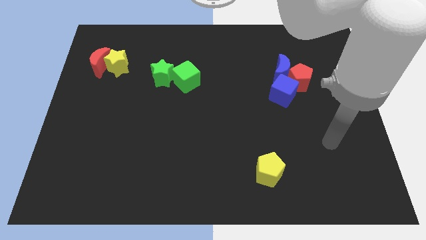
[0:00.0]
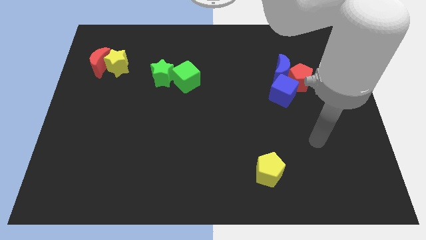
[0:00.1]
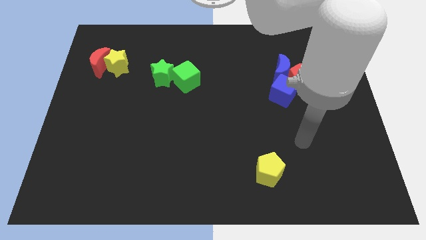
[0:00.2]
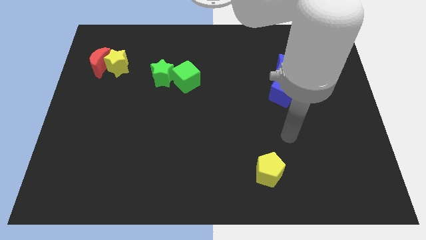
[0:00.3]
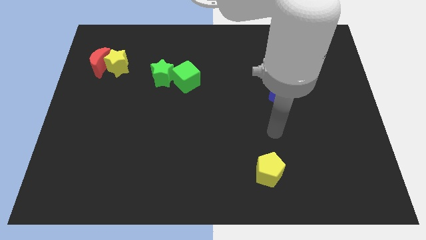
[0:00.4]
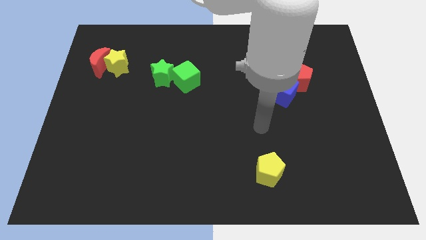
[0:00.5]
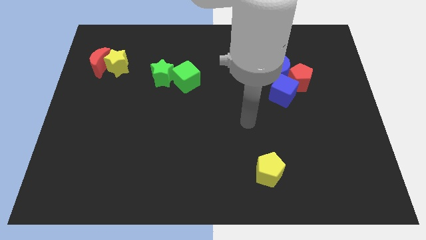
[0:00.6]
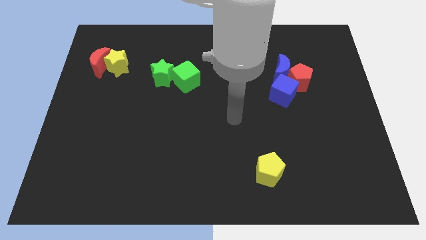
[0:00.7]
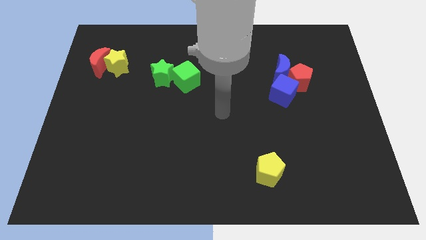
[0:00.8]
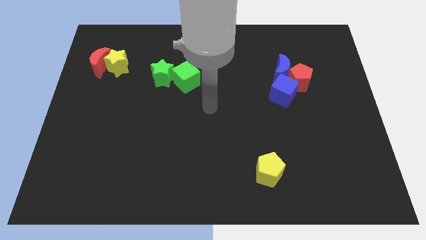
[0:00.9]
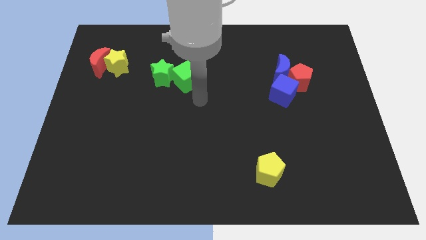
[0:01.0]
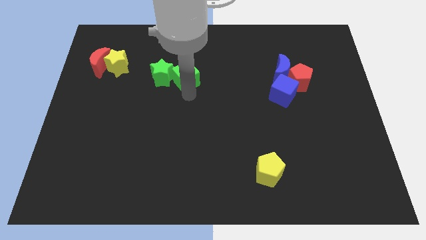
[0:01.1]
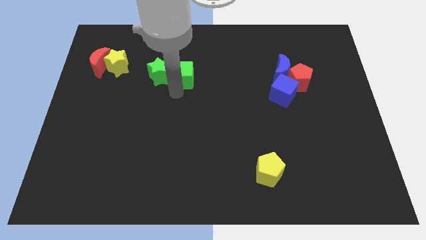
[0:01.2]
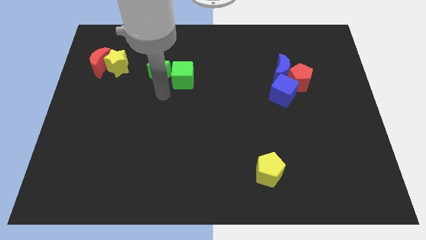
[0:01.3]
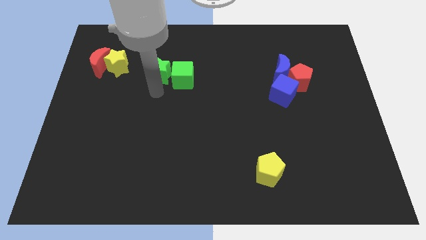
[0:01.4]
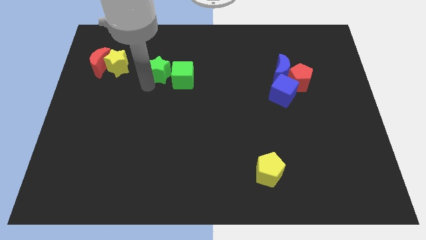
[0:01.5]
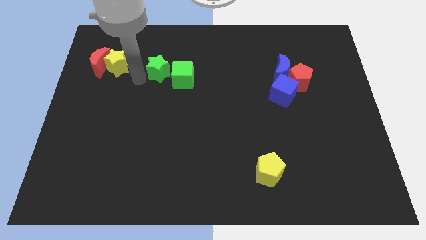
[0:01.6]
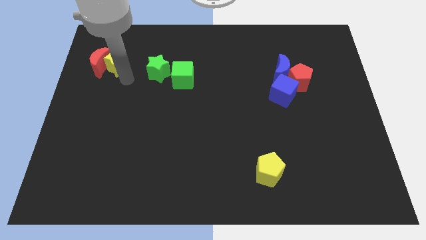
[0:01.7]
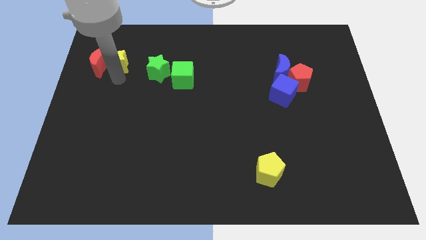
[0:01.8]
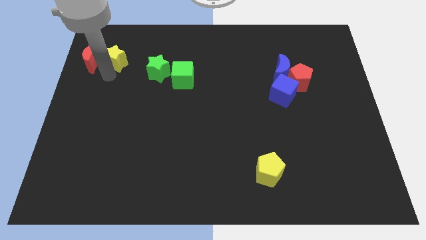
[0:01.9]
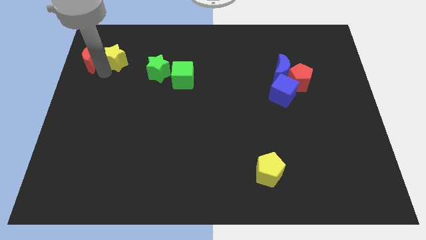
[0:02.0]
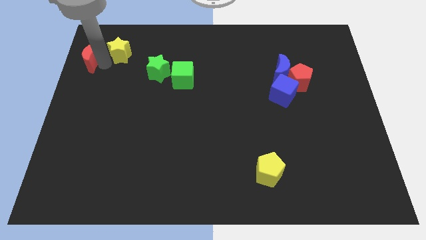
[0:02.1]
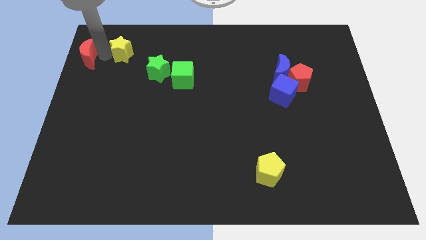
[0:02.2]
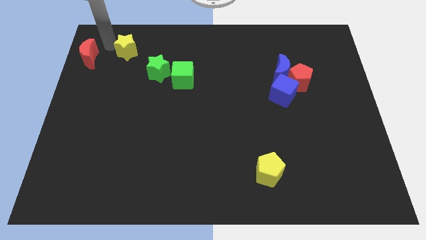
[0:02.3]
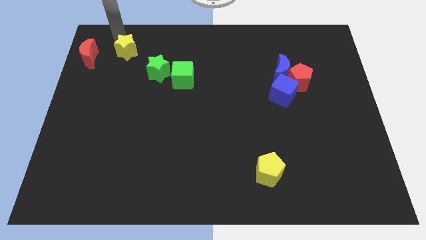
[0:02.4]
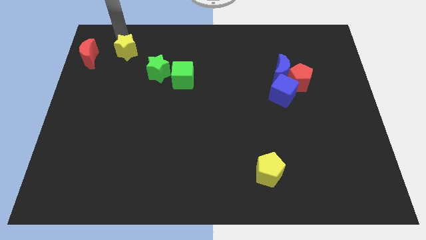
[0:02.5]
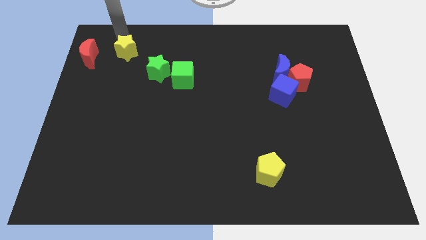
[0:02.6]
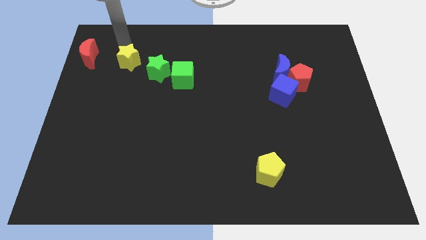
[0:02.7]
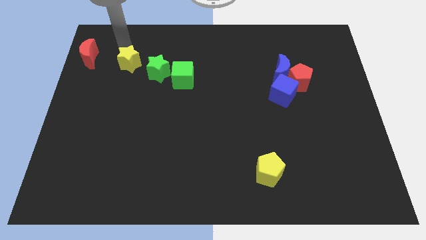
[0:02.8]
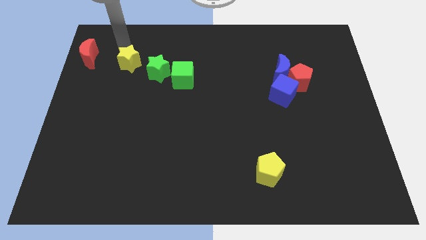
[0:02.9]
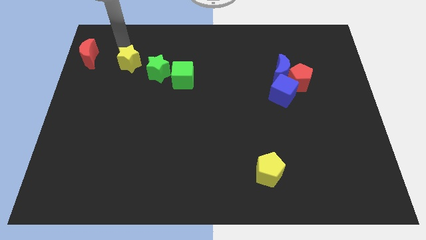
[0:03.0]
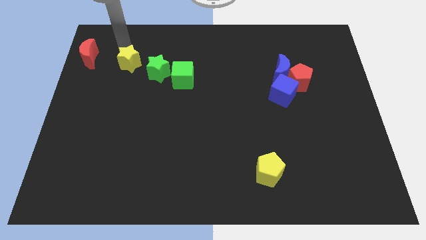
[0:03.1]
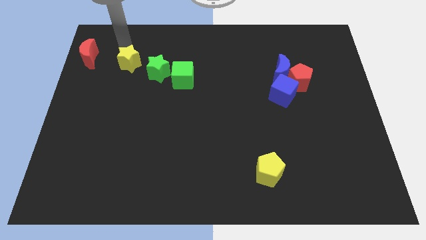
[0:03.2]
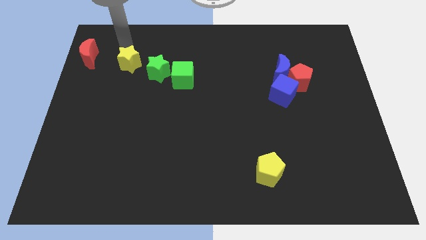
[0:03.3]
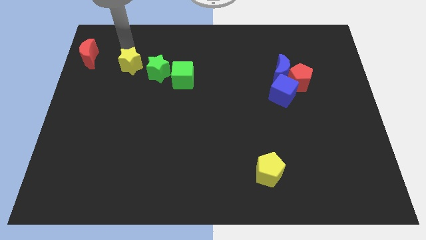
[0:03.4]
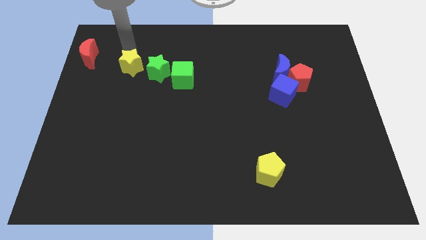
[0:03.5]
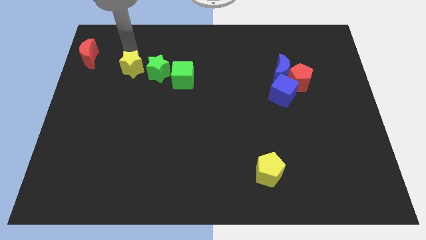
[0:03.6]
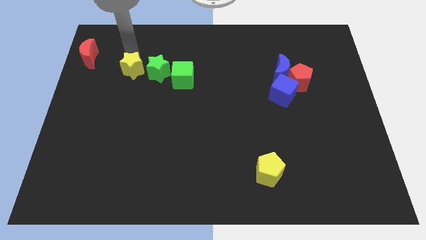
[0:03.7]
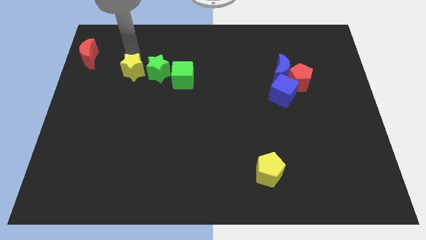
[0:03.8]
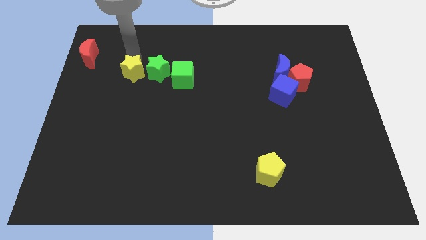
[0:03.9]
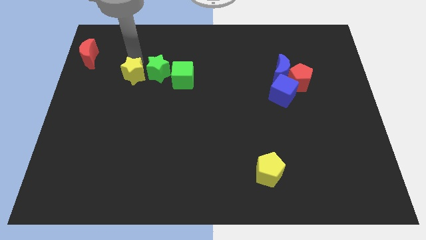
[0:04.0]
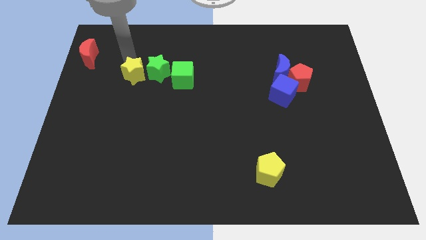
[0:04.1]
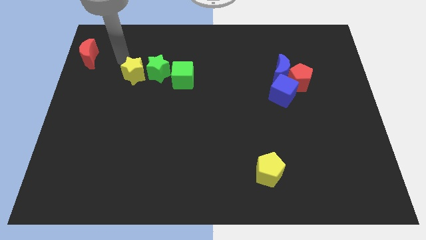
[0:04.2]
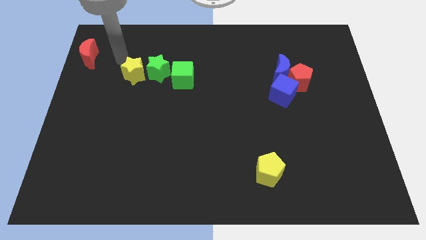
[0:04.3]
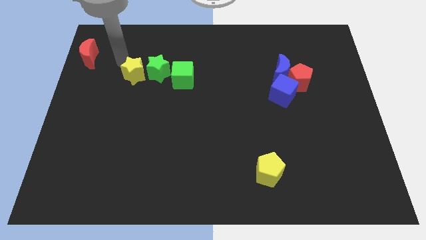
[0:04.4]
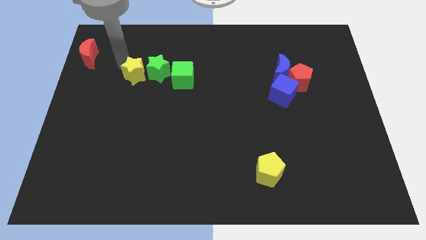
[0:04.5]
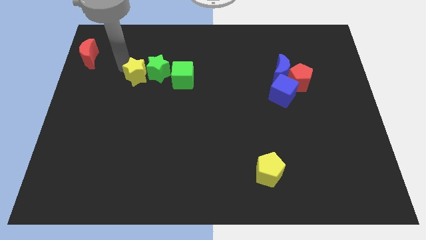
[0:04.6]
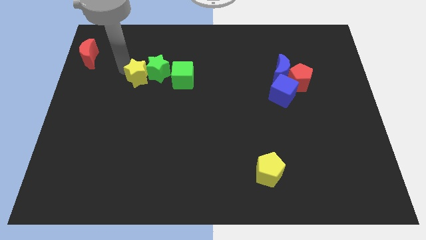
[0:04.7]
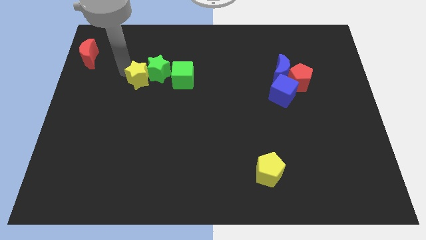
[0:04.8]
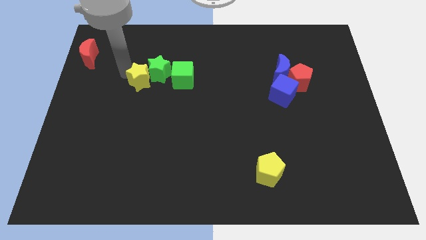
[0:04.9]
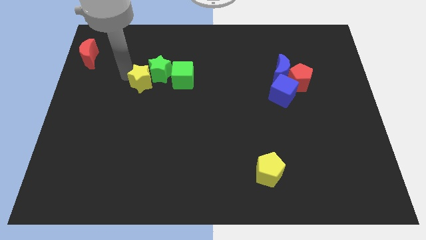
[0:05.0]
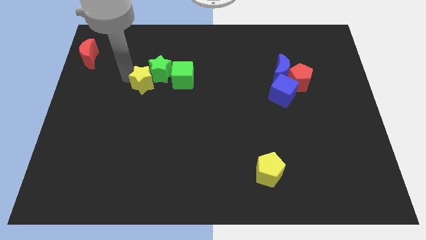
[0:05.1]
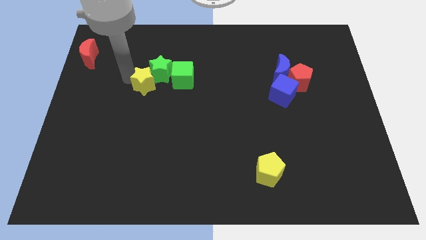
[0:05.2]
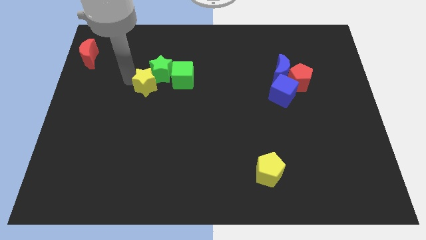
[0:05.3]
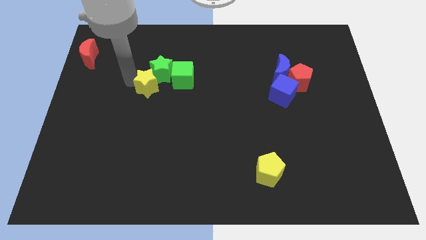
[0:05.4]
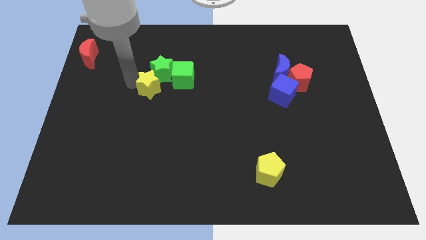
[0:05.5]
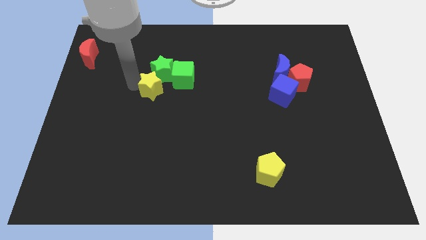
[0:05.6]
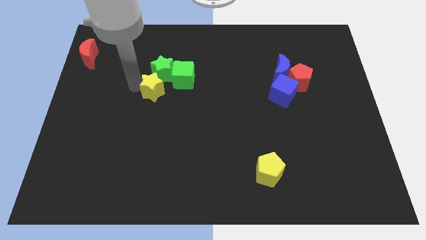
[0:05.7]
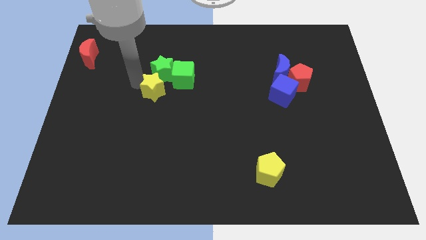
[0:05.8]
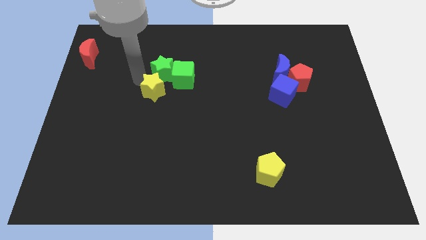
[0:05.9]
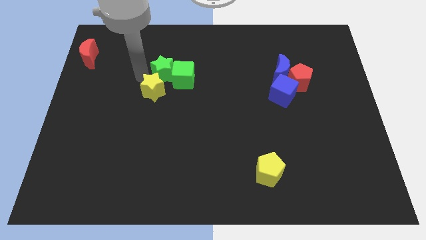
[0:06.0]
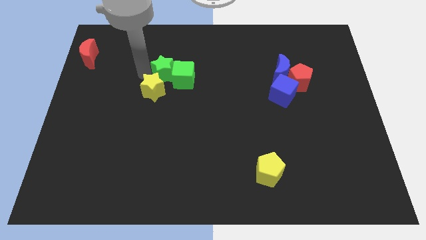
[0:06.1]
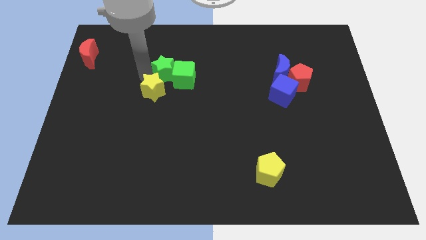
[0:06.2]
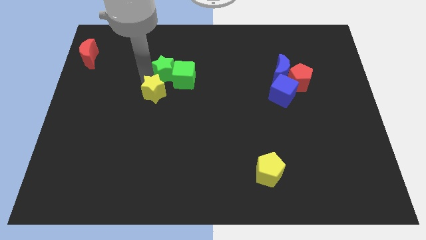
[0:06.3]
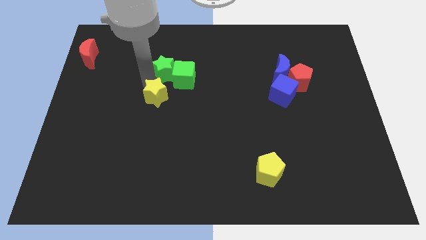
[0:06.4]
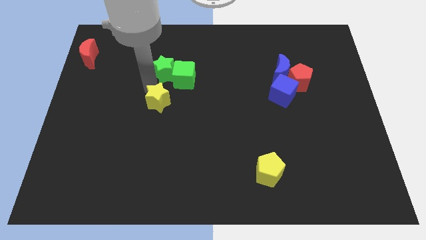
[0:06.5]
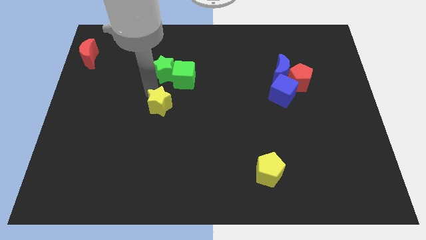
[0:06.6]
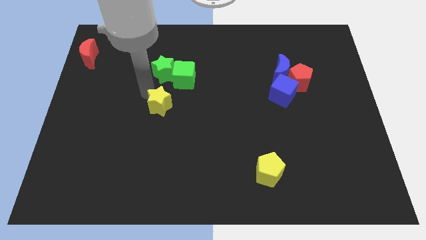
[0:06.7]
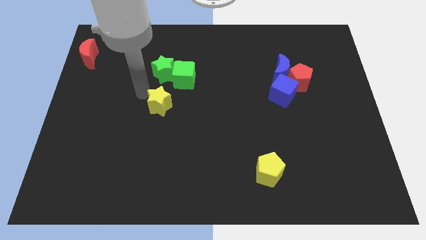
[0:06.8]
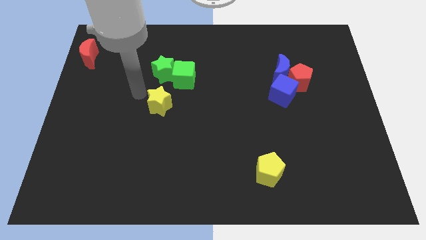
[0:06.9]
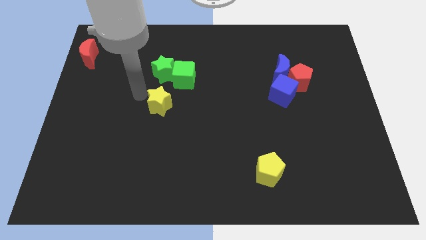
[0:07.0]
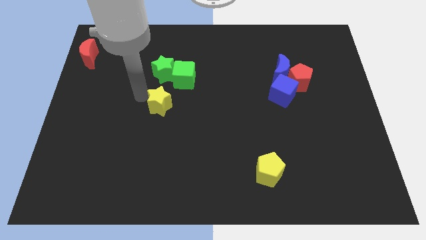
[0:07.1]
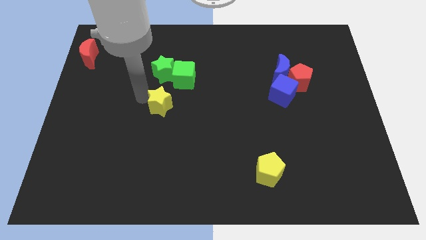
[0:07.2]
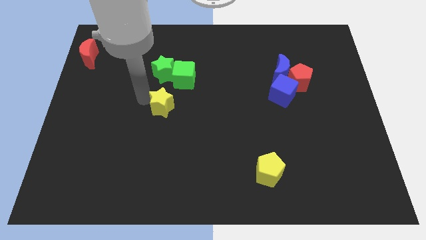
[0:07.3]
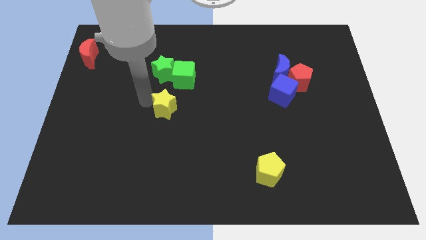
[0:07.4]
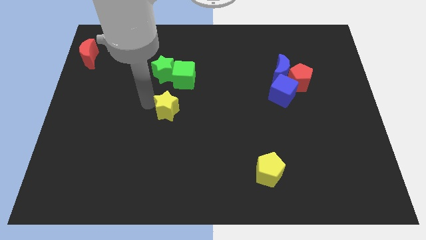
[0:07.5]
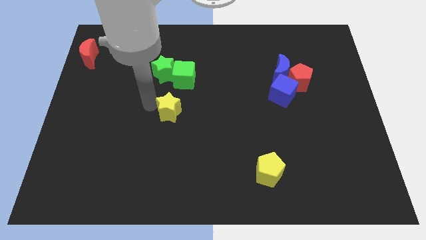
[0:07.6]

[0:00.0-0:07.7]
slide the yellow star diagonally down and right

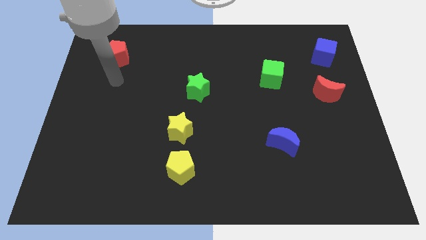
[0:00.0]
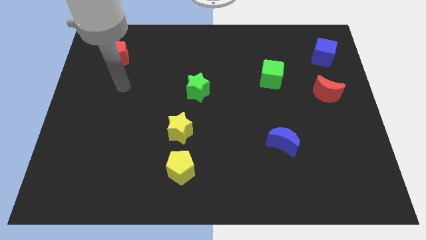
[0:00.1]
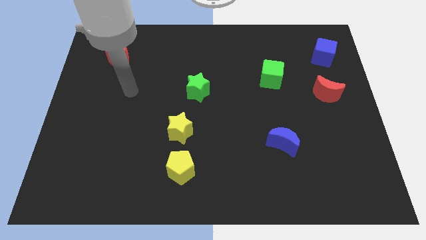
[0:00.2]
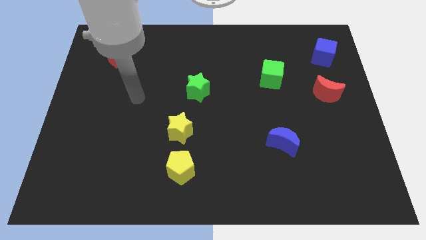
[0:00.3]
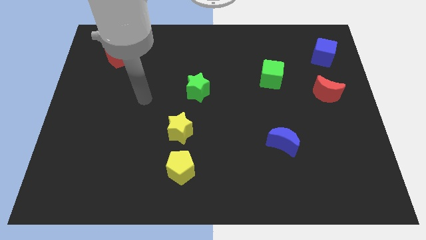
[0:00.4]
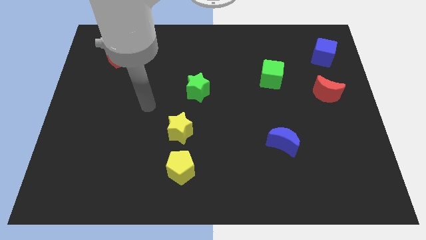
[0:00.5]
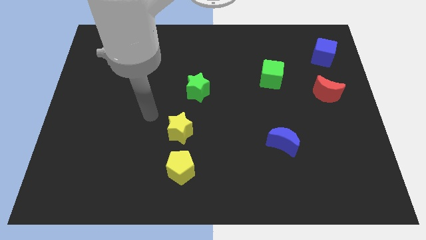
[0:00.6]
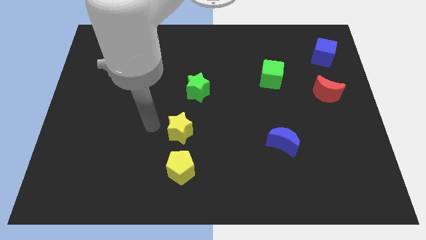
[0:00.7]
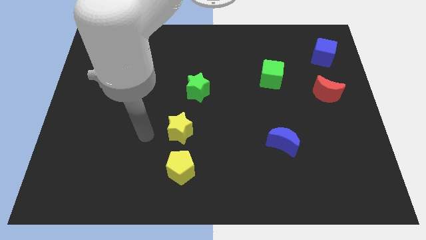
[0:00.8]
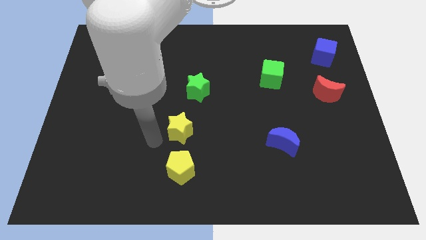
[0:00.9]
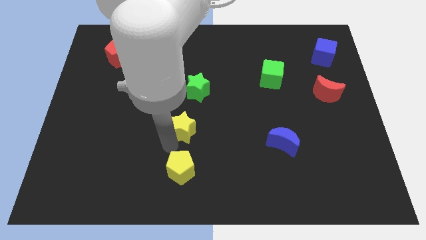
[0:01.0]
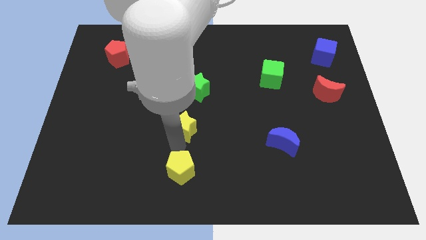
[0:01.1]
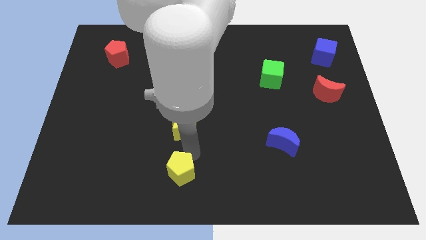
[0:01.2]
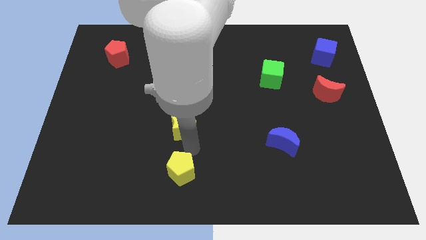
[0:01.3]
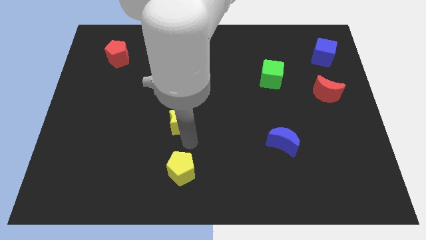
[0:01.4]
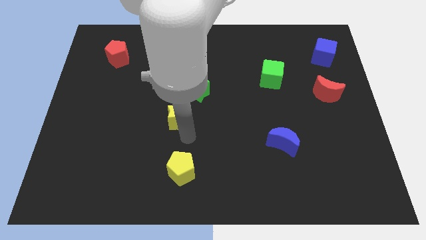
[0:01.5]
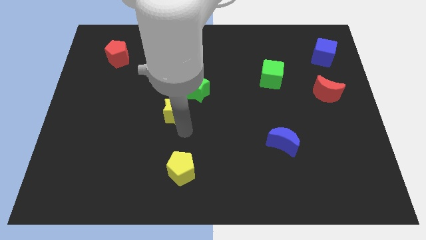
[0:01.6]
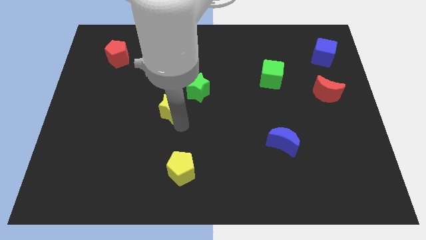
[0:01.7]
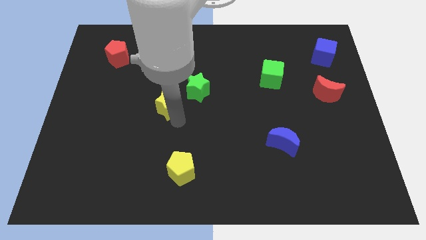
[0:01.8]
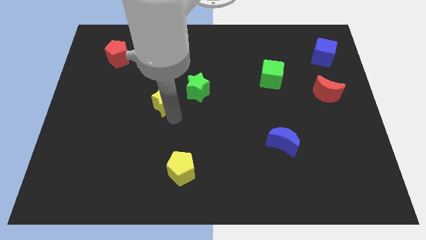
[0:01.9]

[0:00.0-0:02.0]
slightly push the yellow star up
